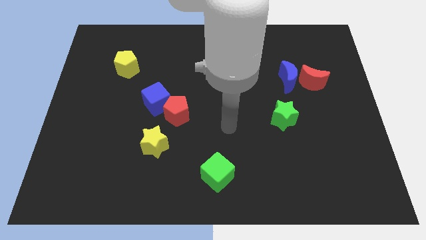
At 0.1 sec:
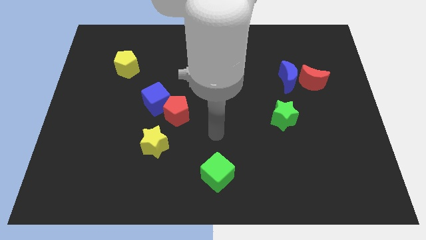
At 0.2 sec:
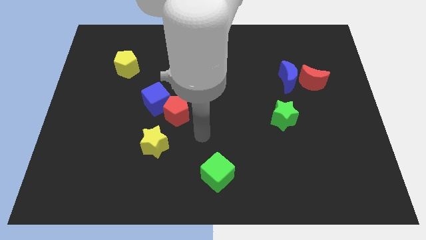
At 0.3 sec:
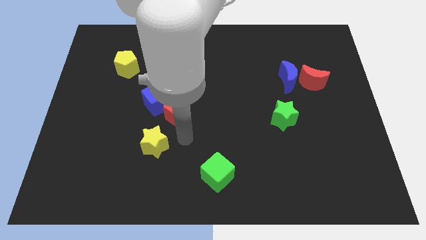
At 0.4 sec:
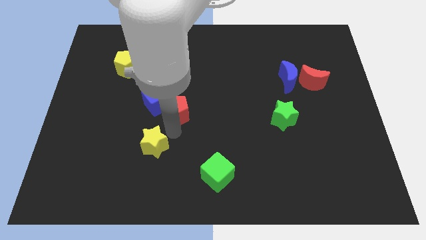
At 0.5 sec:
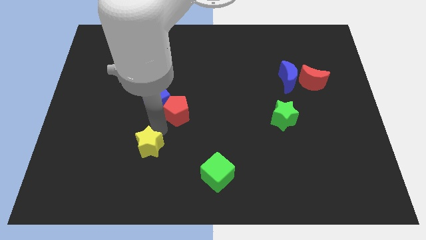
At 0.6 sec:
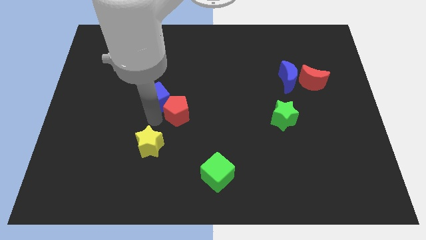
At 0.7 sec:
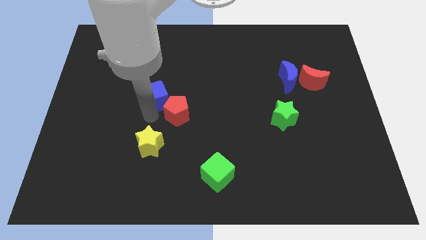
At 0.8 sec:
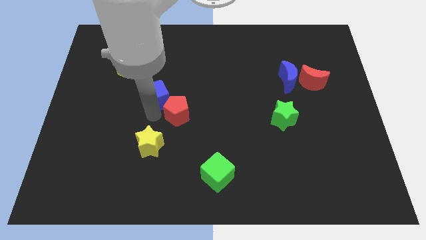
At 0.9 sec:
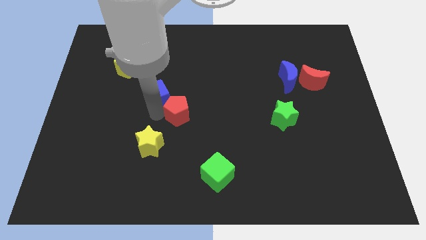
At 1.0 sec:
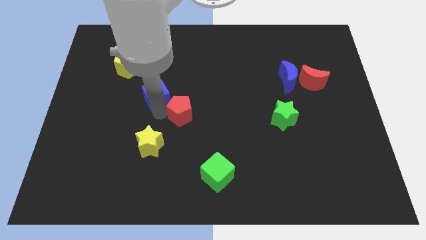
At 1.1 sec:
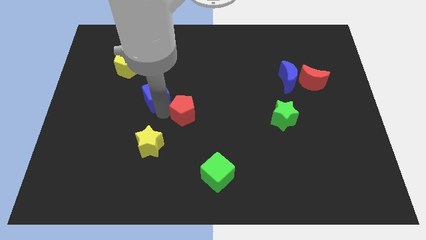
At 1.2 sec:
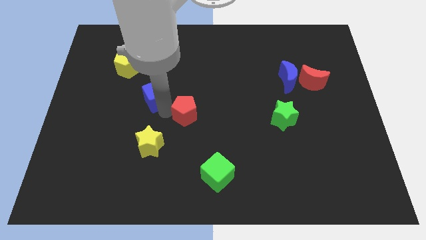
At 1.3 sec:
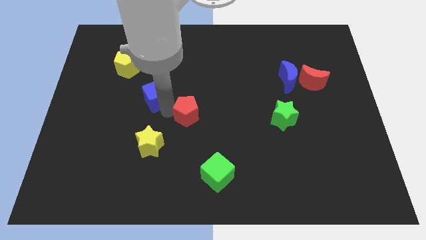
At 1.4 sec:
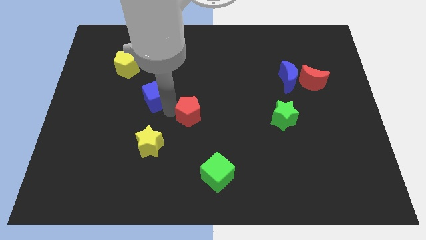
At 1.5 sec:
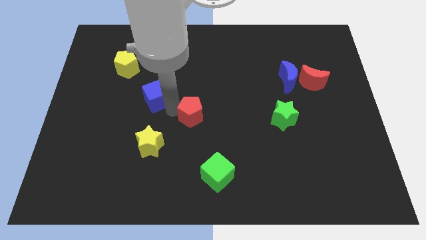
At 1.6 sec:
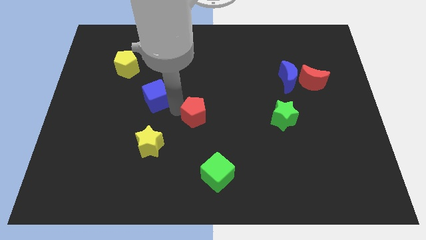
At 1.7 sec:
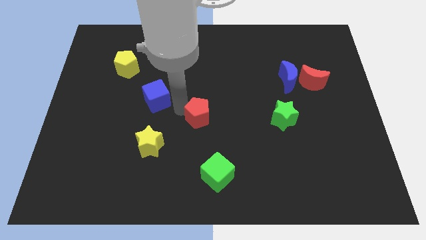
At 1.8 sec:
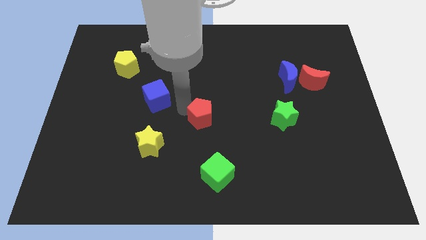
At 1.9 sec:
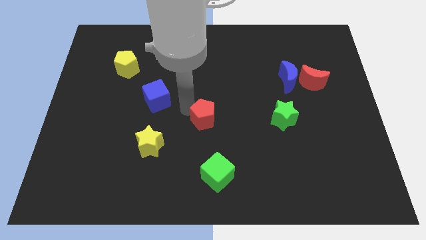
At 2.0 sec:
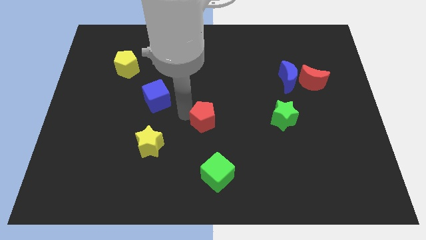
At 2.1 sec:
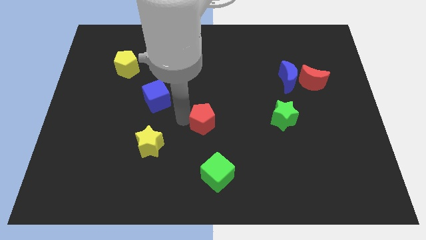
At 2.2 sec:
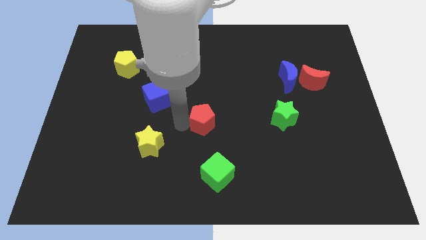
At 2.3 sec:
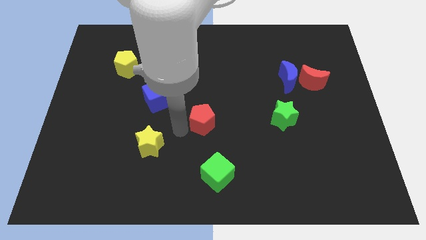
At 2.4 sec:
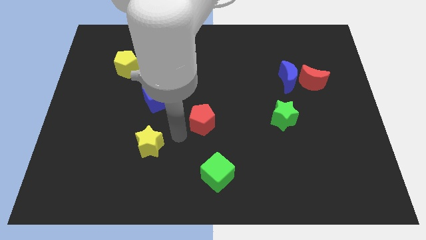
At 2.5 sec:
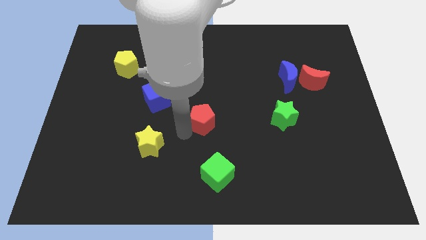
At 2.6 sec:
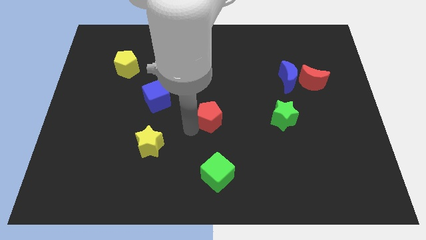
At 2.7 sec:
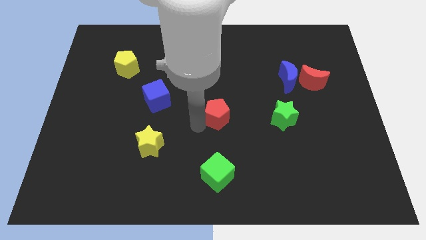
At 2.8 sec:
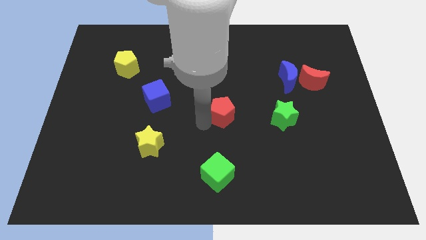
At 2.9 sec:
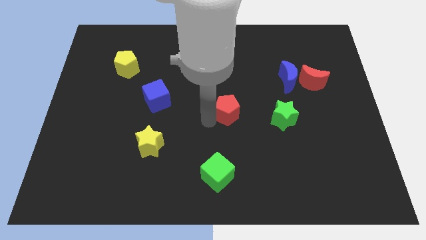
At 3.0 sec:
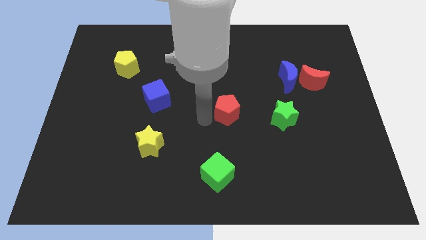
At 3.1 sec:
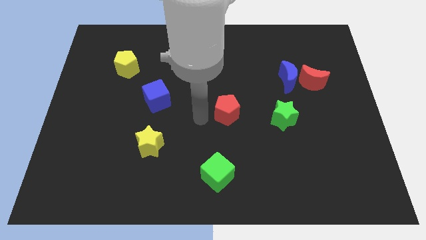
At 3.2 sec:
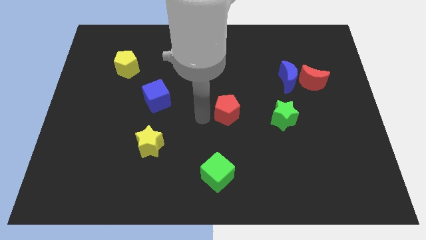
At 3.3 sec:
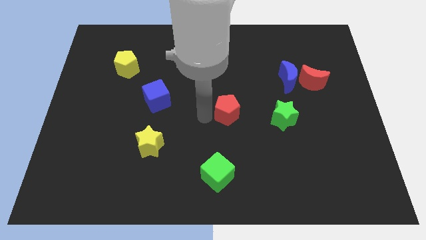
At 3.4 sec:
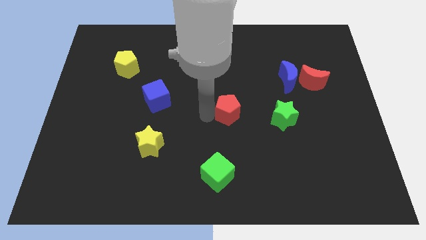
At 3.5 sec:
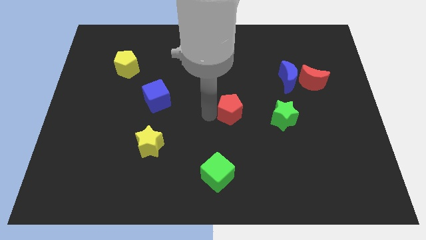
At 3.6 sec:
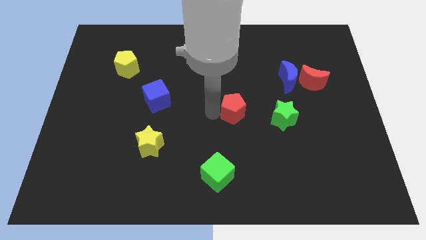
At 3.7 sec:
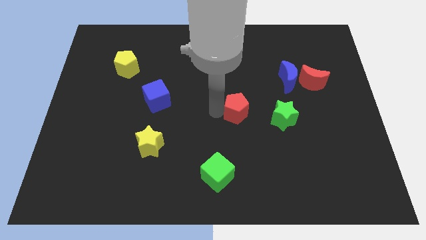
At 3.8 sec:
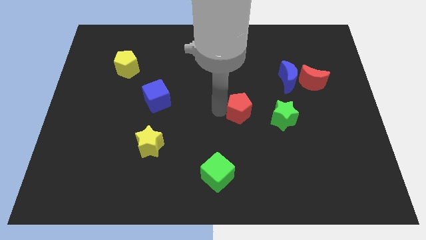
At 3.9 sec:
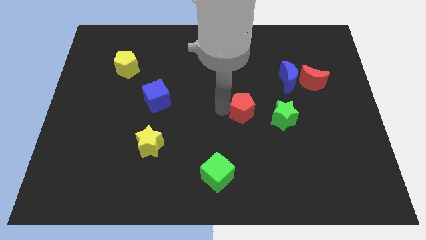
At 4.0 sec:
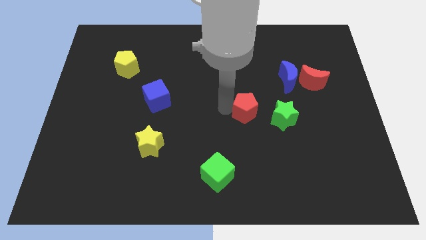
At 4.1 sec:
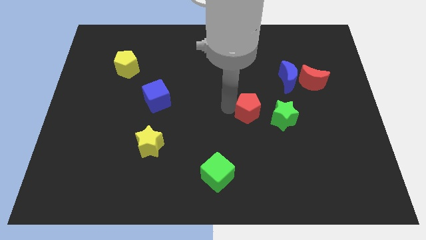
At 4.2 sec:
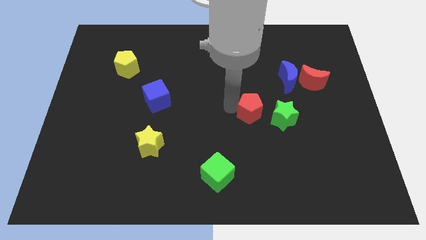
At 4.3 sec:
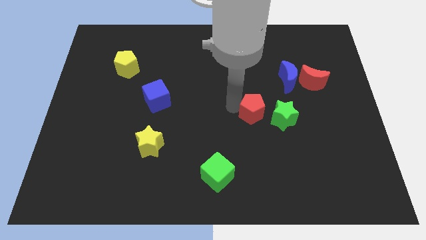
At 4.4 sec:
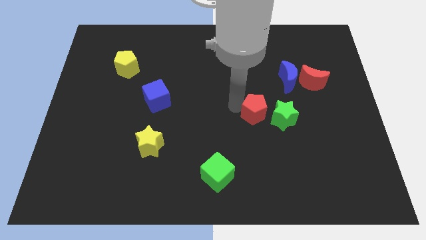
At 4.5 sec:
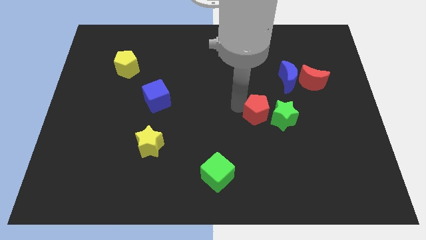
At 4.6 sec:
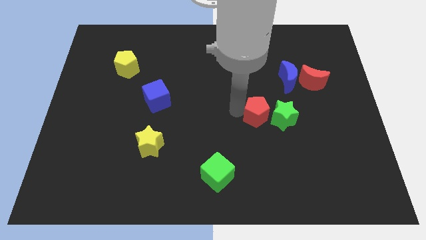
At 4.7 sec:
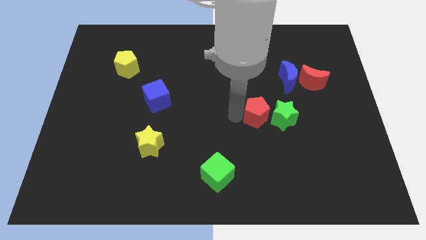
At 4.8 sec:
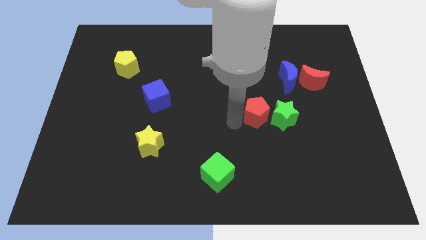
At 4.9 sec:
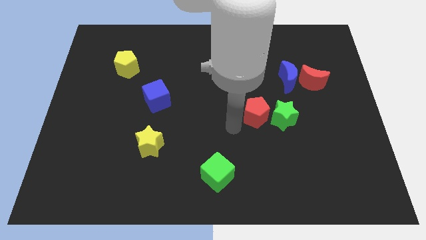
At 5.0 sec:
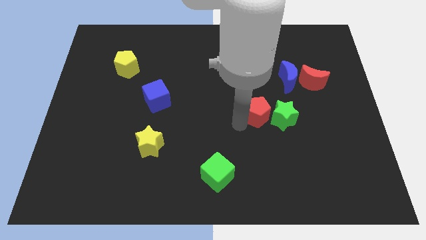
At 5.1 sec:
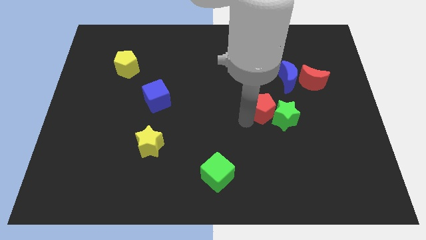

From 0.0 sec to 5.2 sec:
push the red pentagon to the right

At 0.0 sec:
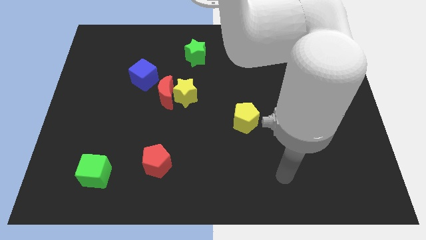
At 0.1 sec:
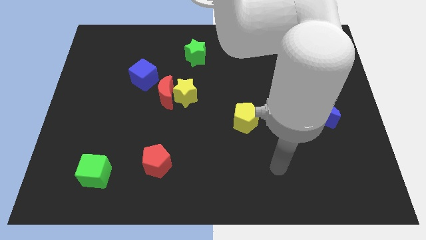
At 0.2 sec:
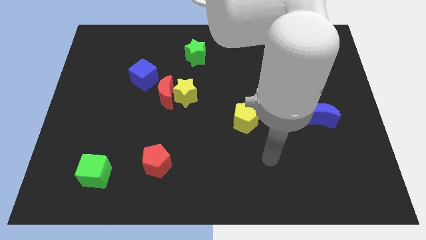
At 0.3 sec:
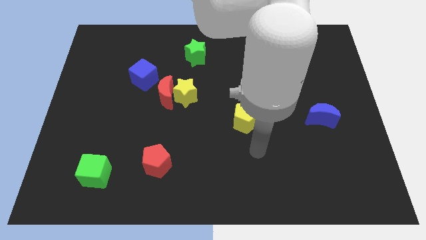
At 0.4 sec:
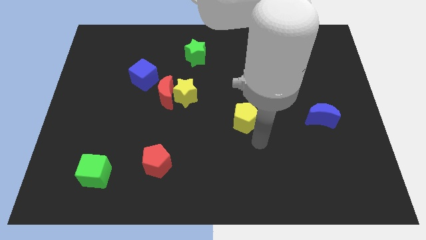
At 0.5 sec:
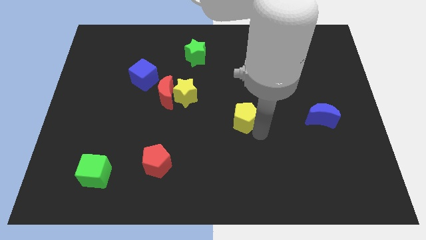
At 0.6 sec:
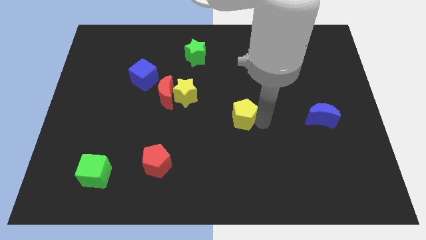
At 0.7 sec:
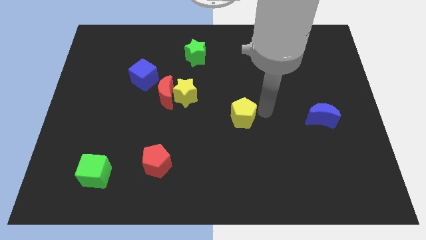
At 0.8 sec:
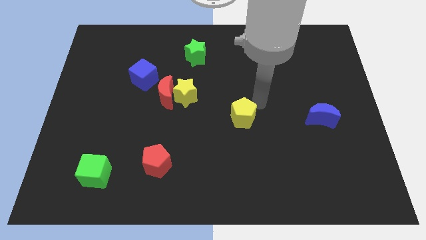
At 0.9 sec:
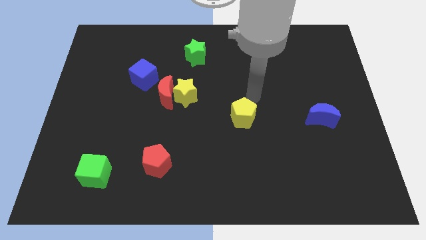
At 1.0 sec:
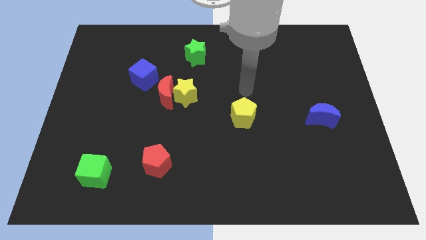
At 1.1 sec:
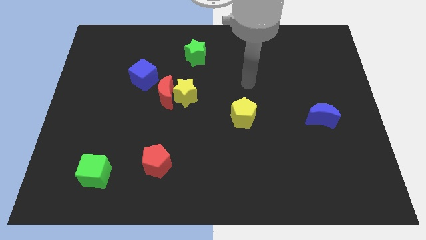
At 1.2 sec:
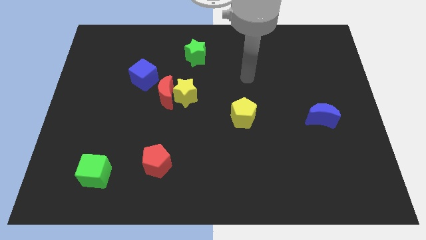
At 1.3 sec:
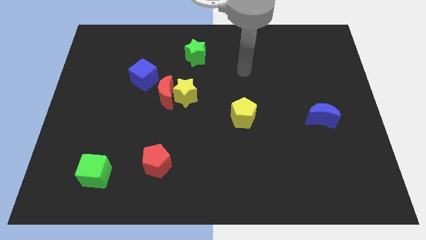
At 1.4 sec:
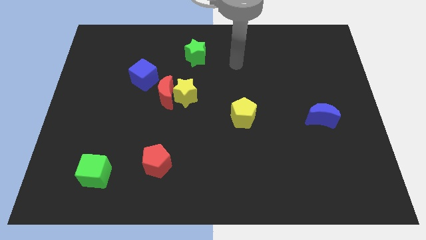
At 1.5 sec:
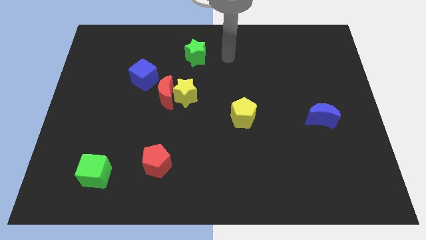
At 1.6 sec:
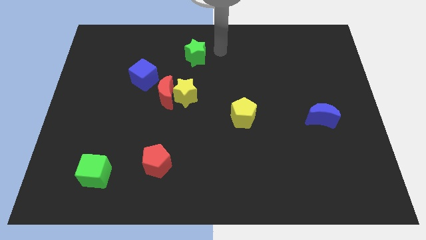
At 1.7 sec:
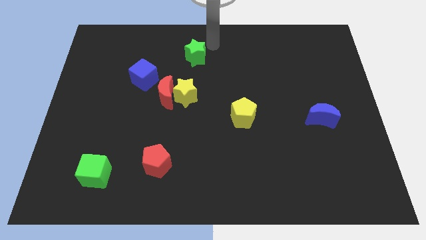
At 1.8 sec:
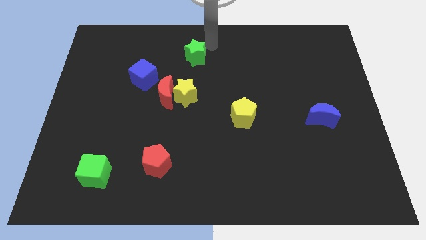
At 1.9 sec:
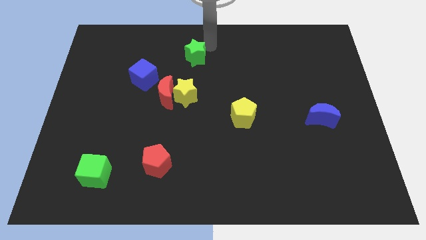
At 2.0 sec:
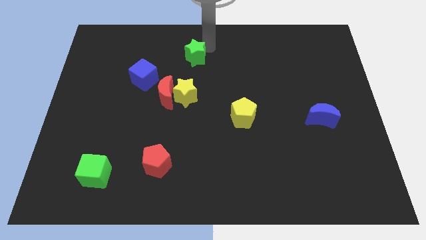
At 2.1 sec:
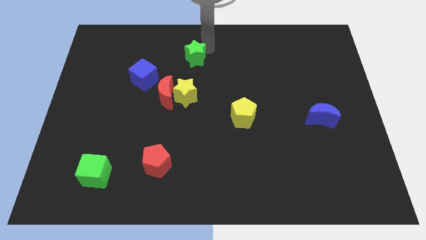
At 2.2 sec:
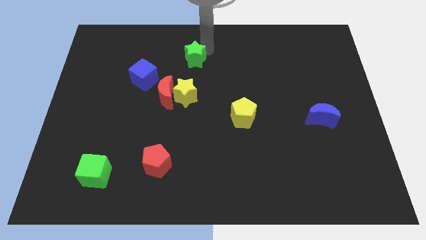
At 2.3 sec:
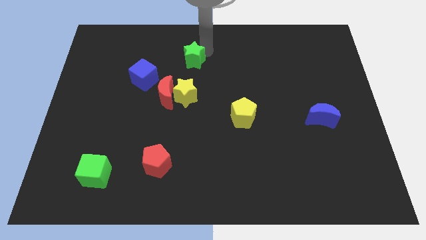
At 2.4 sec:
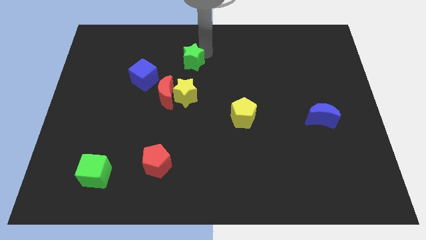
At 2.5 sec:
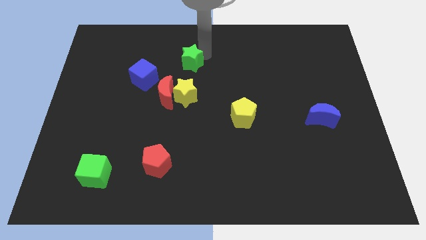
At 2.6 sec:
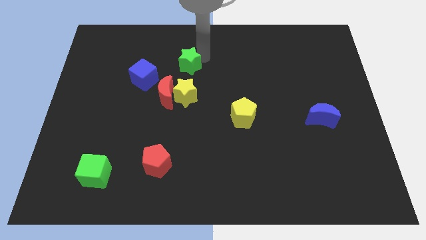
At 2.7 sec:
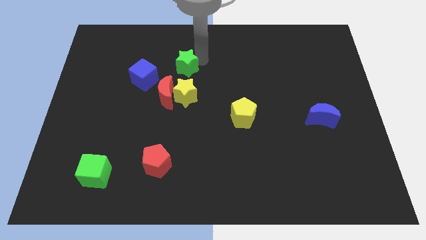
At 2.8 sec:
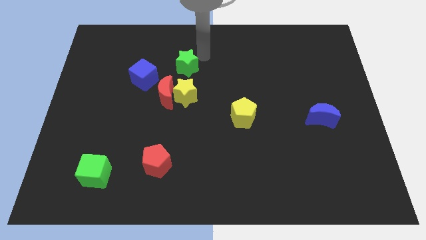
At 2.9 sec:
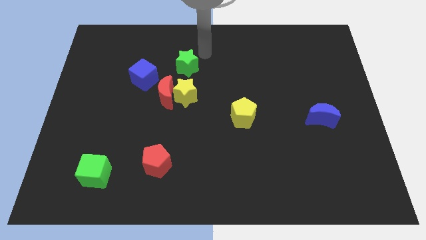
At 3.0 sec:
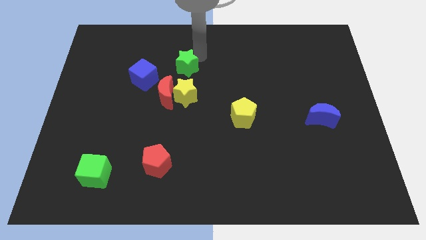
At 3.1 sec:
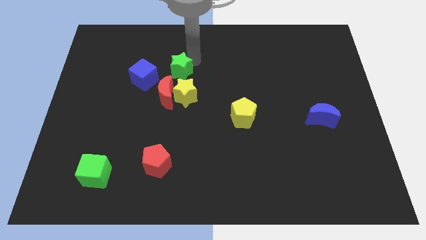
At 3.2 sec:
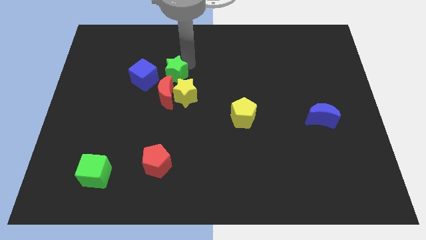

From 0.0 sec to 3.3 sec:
slightly slide the green star diagonally down and to the left
